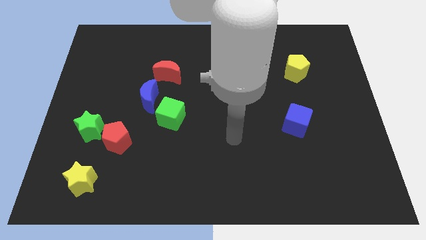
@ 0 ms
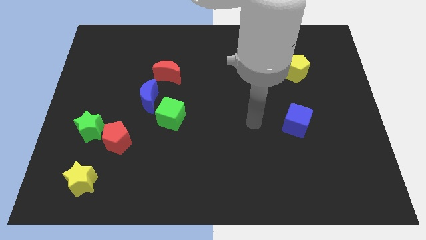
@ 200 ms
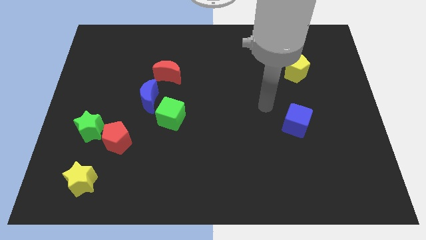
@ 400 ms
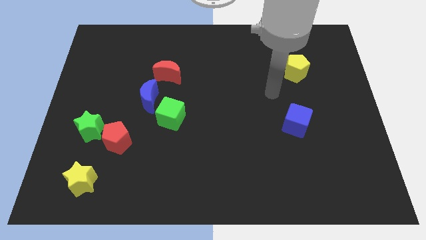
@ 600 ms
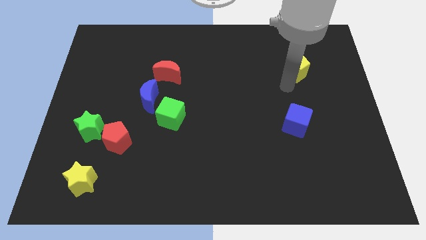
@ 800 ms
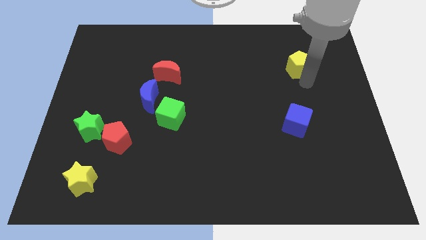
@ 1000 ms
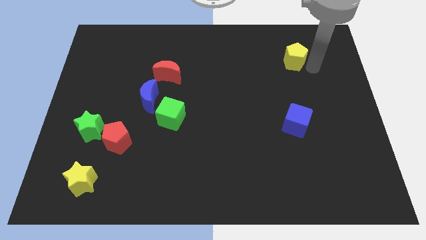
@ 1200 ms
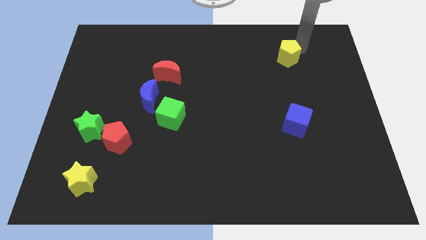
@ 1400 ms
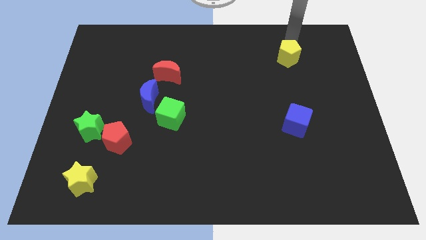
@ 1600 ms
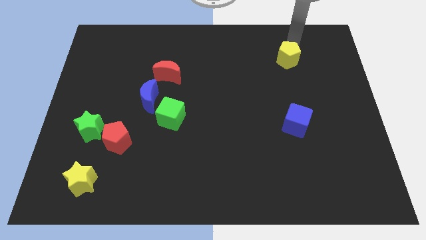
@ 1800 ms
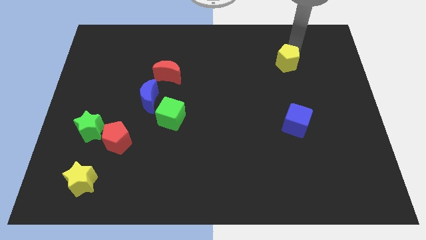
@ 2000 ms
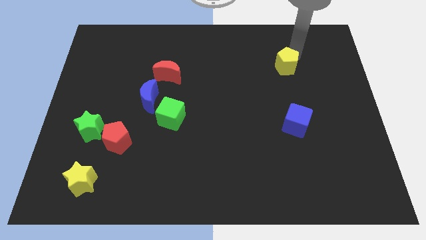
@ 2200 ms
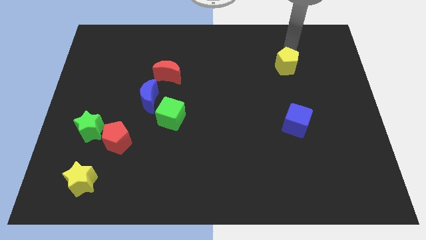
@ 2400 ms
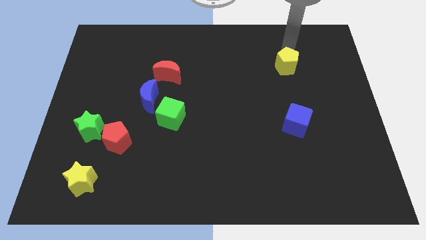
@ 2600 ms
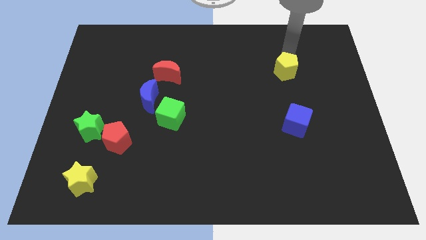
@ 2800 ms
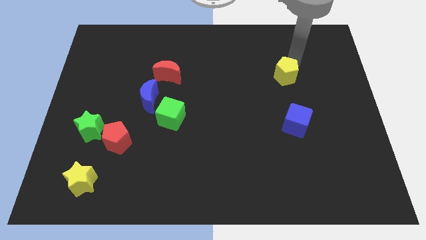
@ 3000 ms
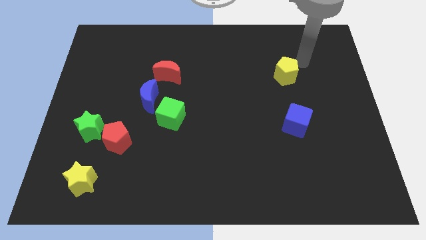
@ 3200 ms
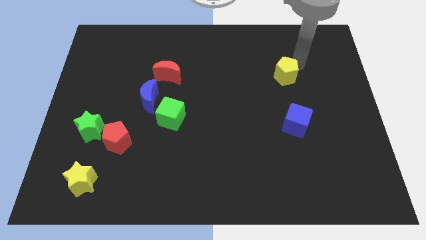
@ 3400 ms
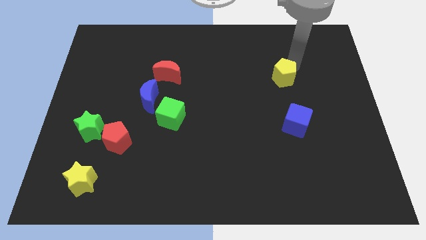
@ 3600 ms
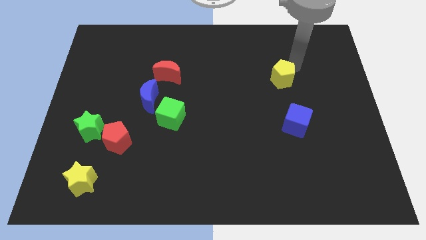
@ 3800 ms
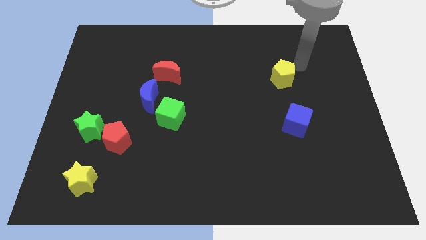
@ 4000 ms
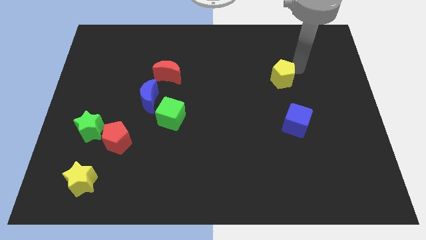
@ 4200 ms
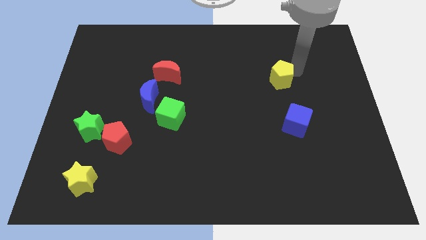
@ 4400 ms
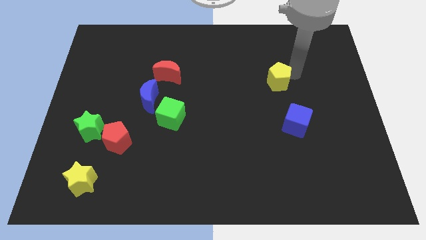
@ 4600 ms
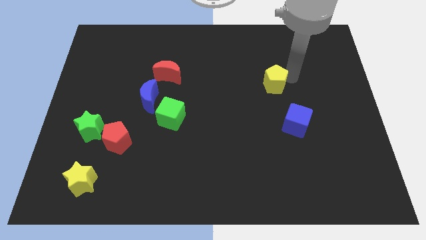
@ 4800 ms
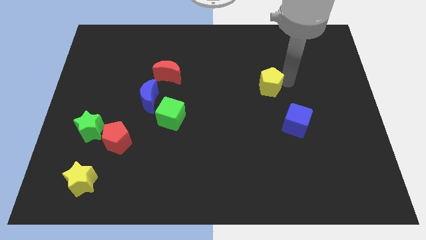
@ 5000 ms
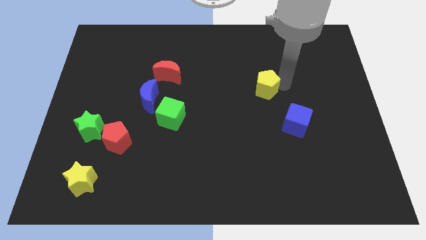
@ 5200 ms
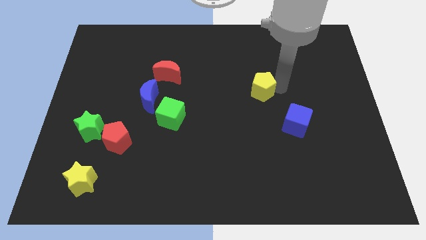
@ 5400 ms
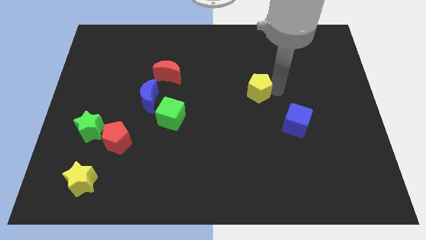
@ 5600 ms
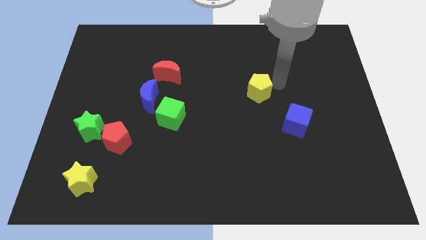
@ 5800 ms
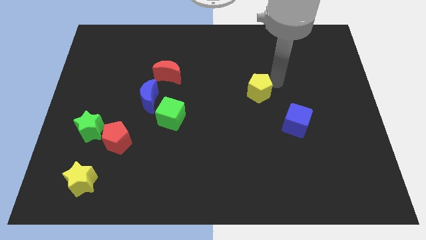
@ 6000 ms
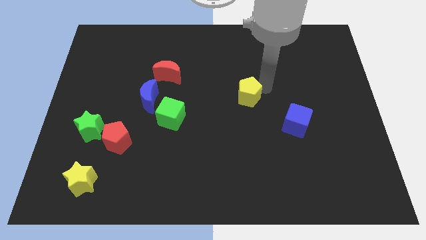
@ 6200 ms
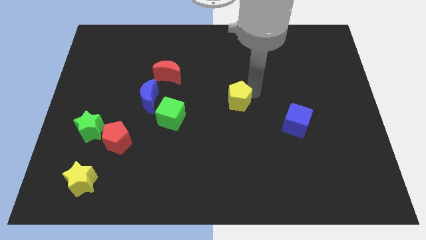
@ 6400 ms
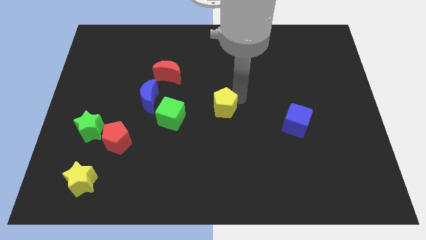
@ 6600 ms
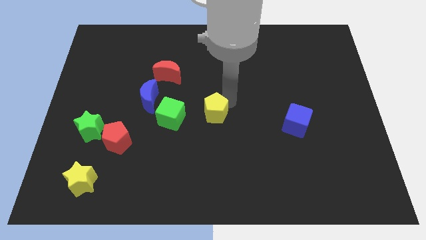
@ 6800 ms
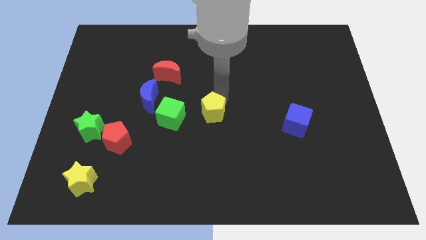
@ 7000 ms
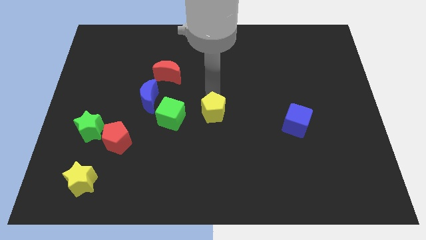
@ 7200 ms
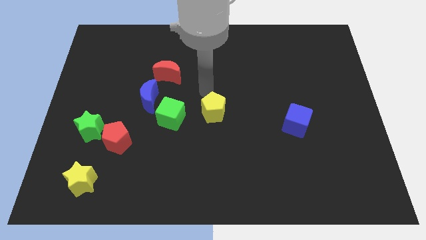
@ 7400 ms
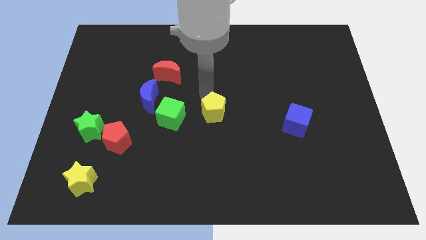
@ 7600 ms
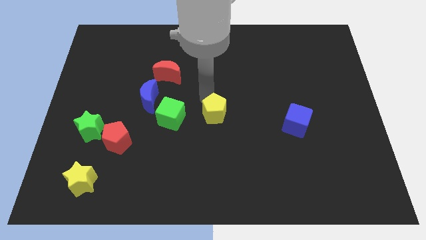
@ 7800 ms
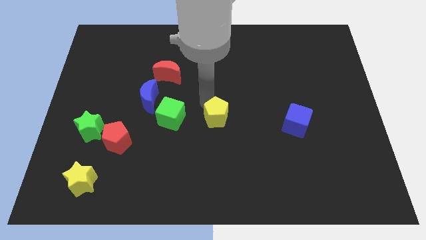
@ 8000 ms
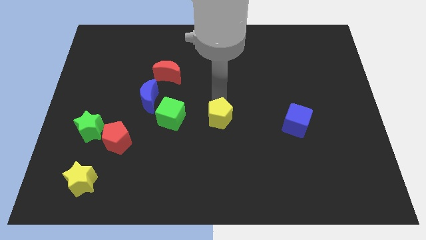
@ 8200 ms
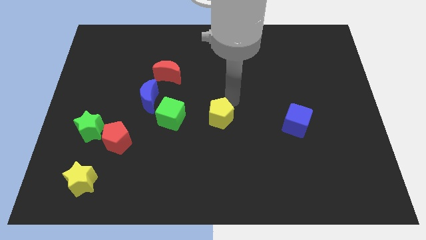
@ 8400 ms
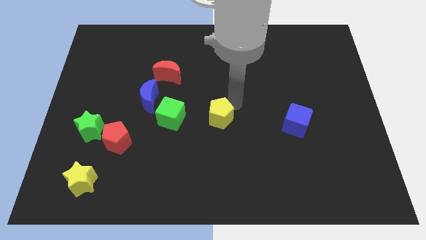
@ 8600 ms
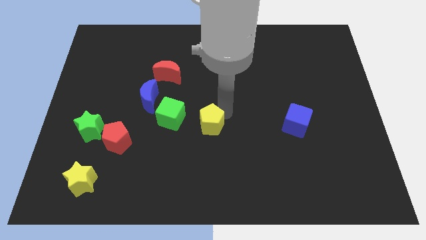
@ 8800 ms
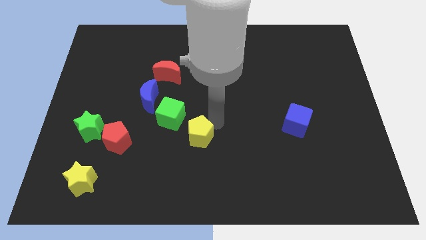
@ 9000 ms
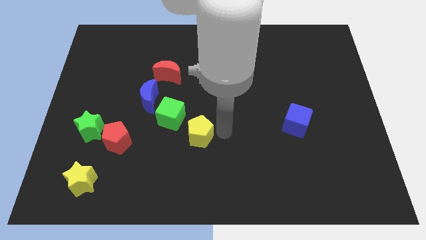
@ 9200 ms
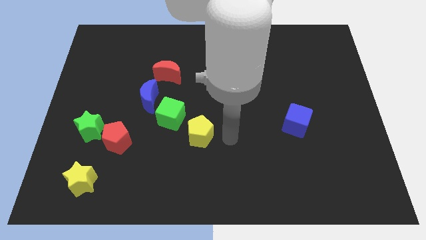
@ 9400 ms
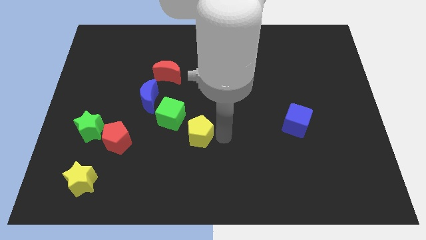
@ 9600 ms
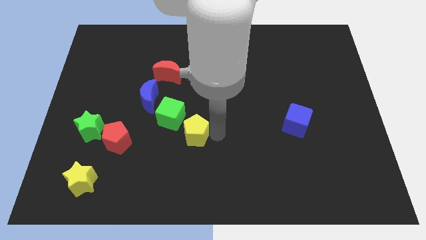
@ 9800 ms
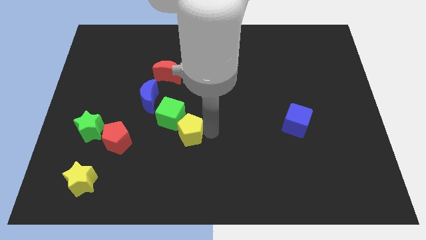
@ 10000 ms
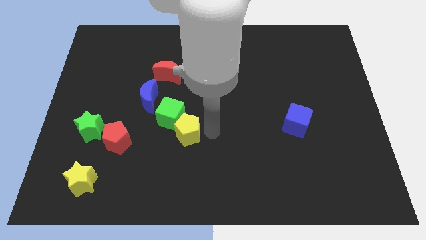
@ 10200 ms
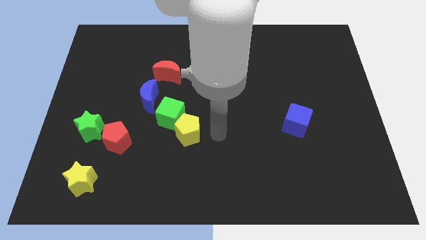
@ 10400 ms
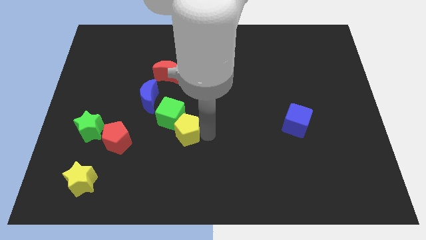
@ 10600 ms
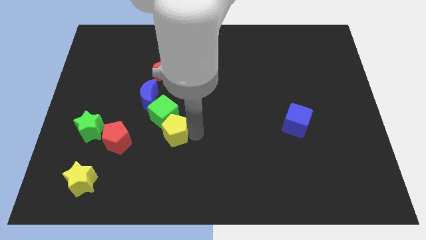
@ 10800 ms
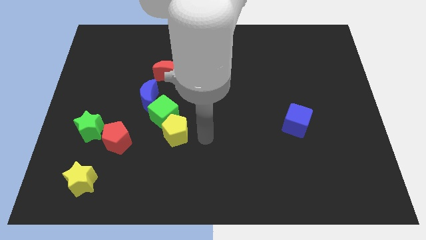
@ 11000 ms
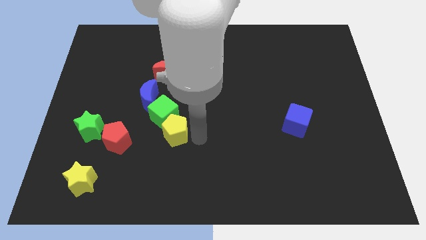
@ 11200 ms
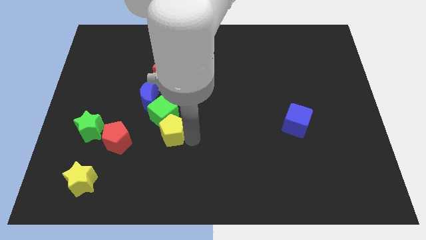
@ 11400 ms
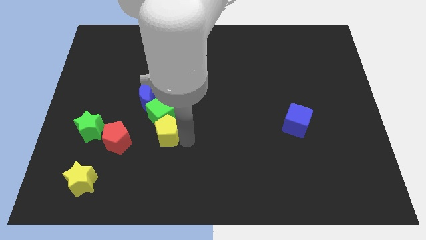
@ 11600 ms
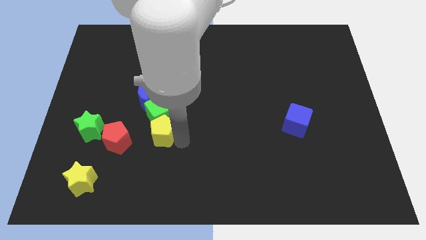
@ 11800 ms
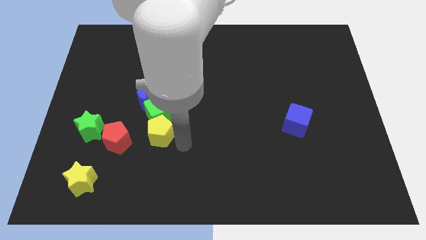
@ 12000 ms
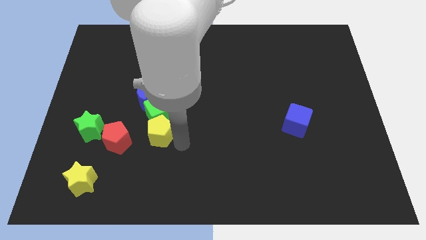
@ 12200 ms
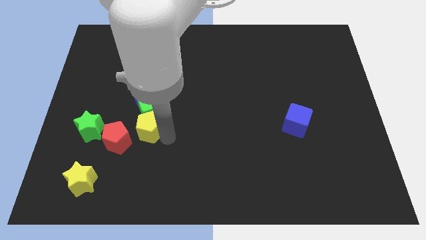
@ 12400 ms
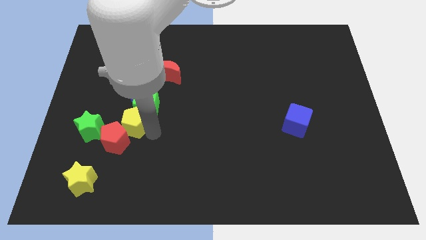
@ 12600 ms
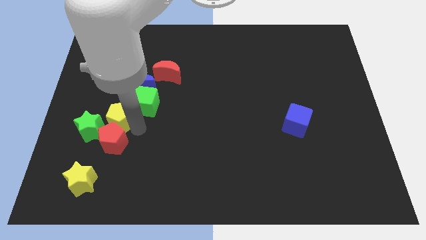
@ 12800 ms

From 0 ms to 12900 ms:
push the yellow pentagon to the bottom left side of the blue moon

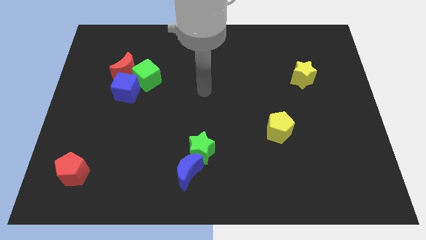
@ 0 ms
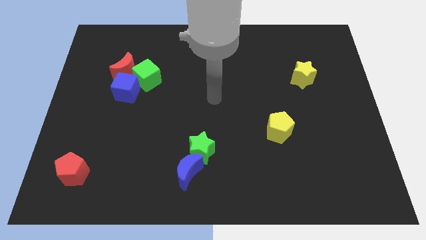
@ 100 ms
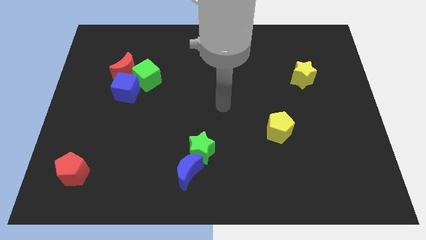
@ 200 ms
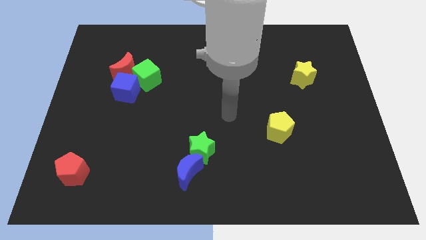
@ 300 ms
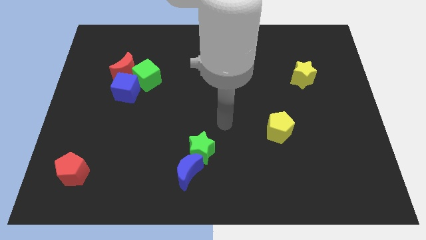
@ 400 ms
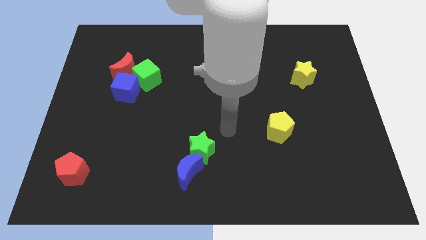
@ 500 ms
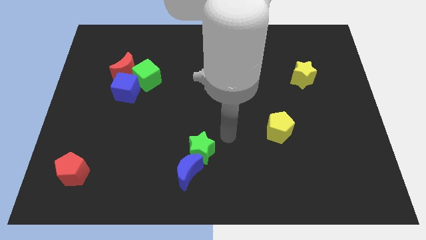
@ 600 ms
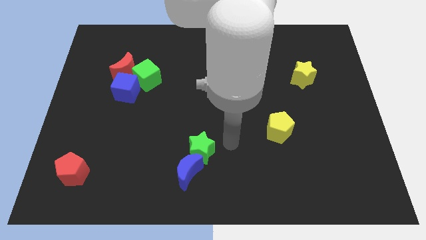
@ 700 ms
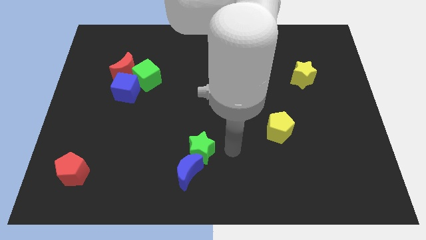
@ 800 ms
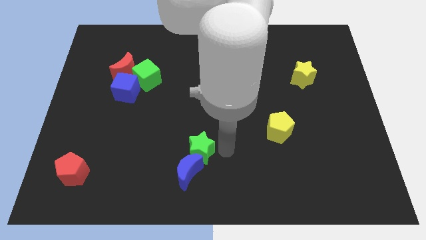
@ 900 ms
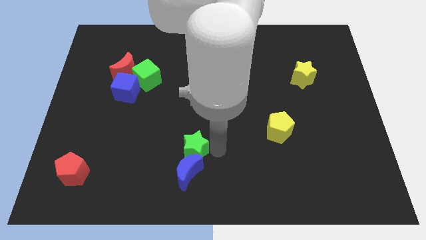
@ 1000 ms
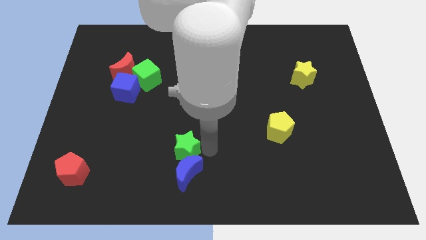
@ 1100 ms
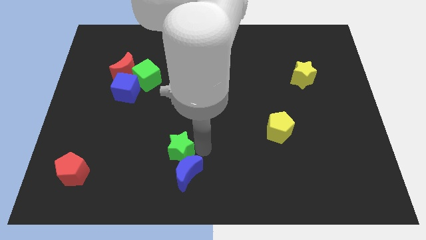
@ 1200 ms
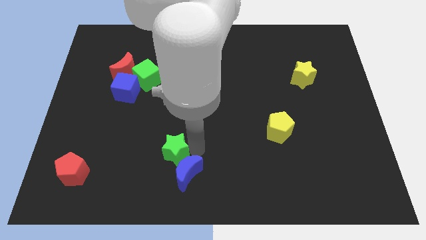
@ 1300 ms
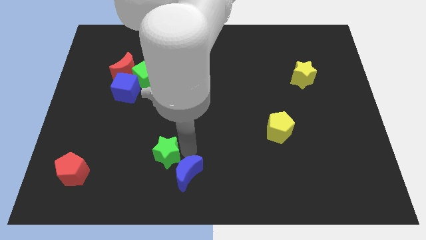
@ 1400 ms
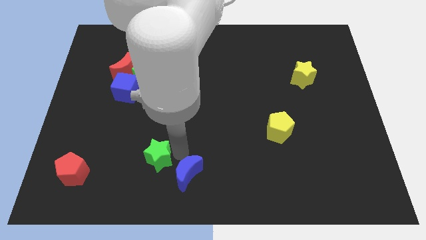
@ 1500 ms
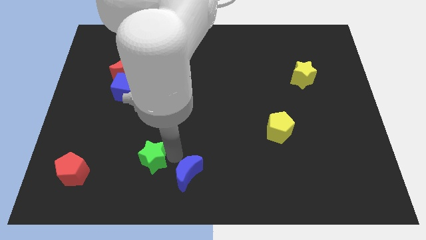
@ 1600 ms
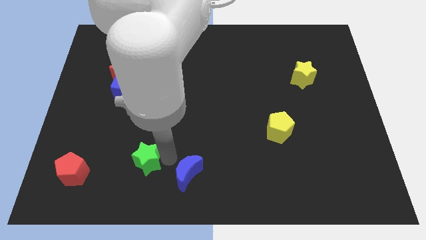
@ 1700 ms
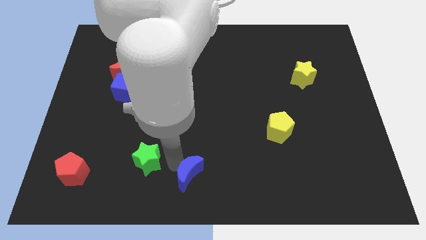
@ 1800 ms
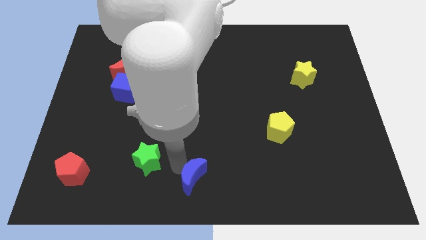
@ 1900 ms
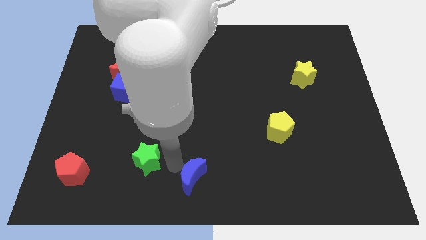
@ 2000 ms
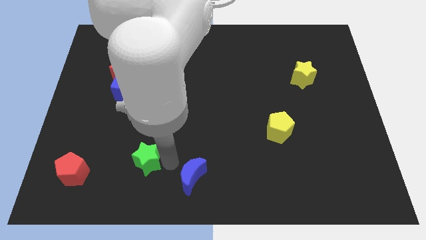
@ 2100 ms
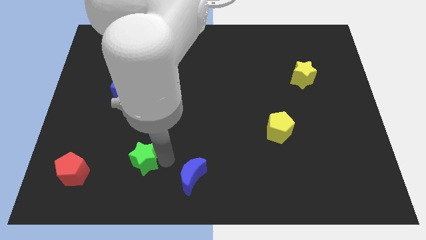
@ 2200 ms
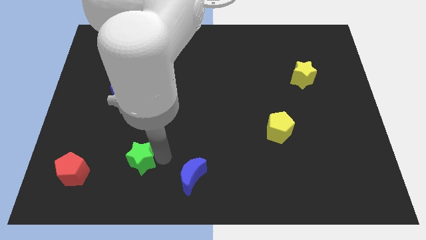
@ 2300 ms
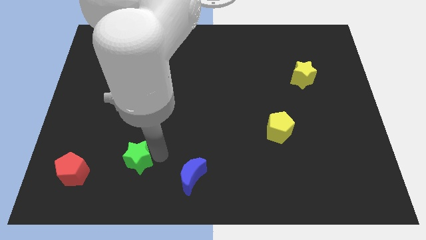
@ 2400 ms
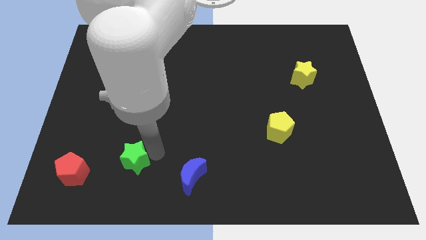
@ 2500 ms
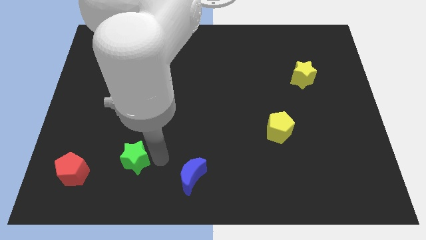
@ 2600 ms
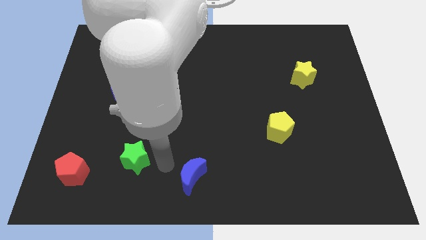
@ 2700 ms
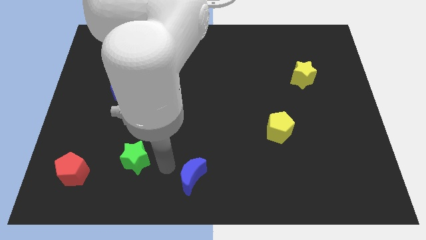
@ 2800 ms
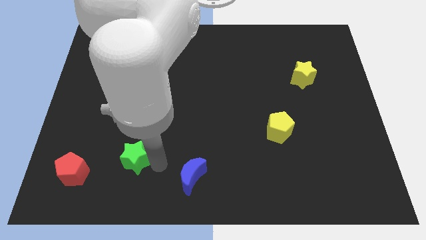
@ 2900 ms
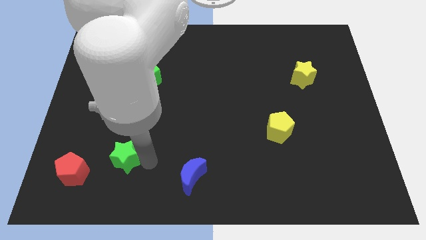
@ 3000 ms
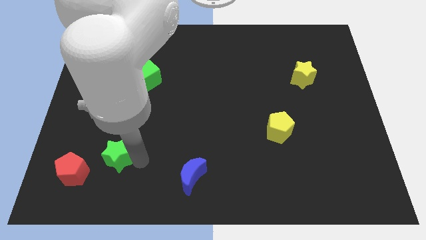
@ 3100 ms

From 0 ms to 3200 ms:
move the green star to the top right side of the red pentagon
